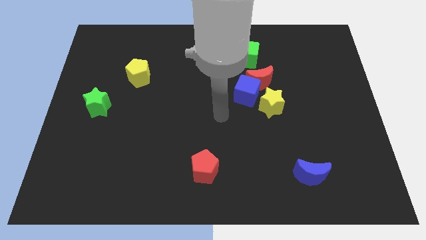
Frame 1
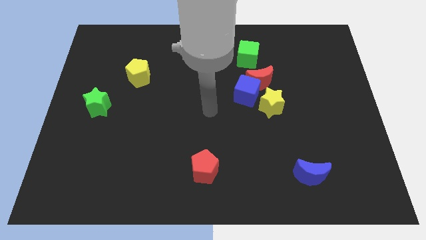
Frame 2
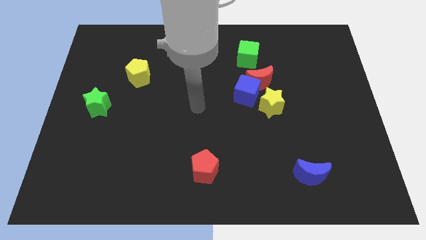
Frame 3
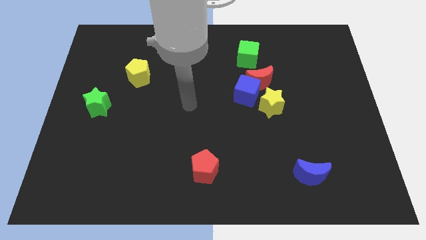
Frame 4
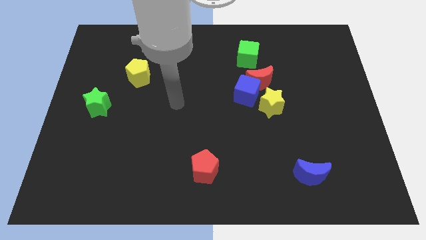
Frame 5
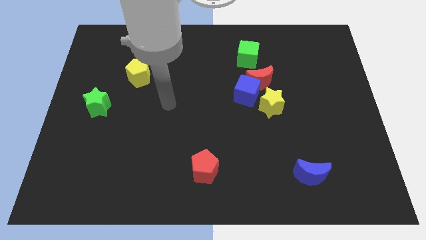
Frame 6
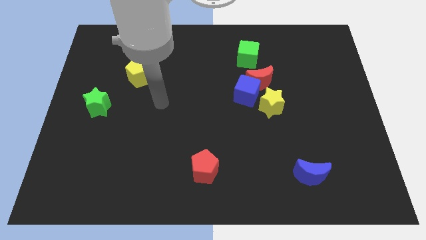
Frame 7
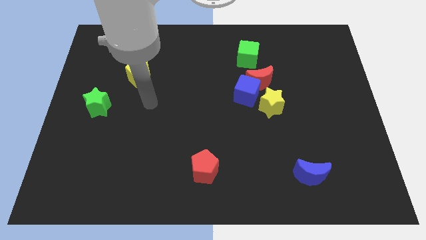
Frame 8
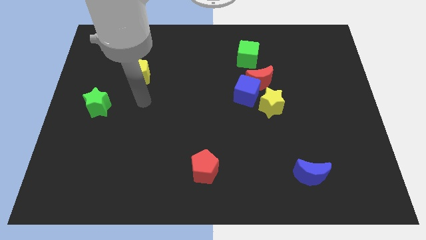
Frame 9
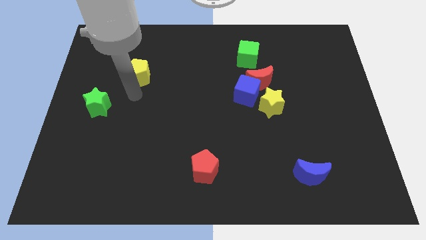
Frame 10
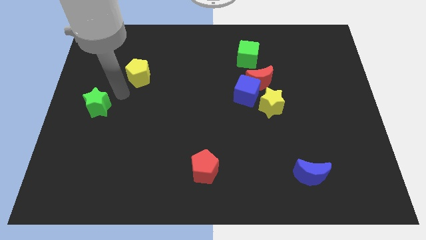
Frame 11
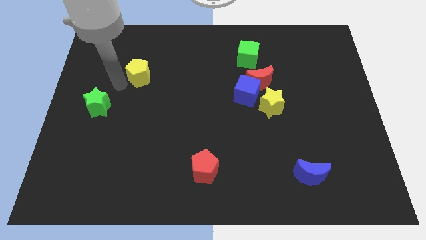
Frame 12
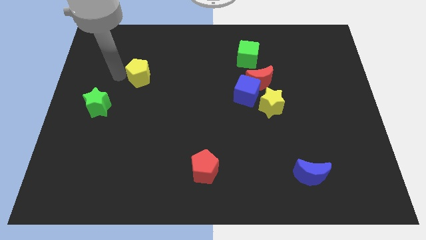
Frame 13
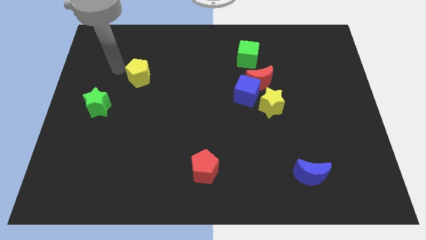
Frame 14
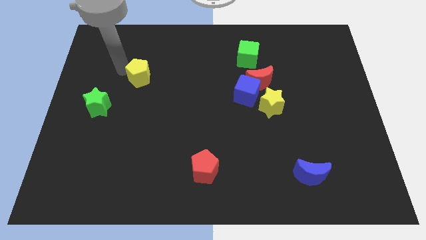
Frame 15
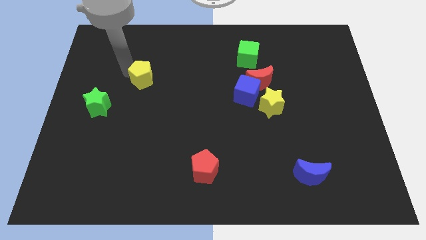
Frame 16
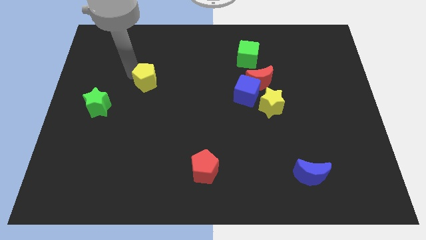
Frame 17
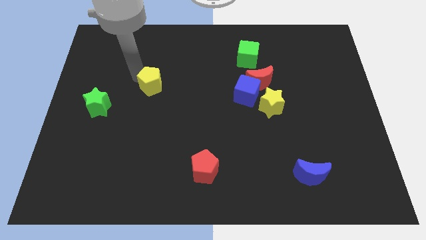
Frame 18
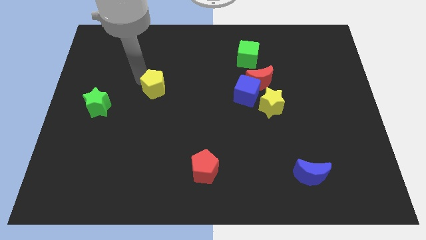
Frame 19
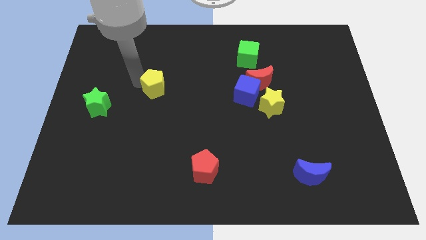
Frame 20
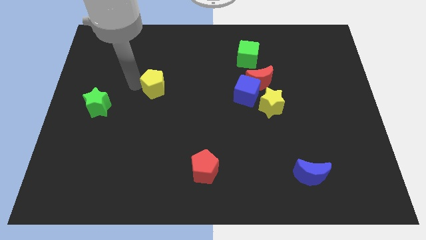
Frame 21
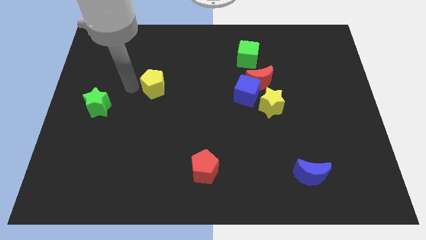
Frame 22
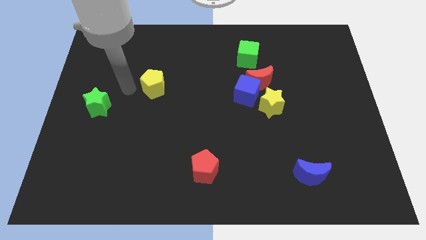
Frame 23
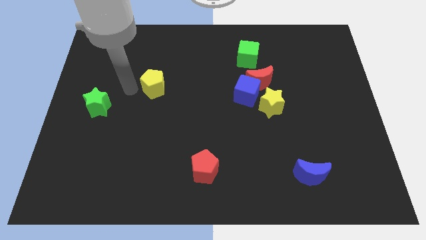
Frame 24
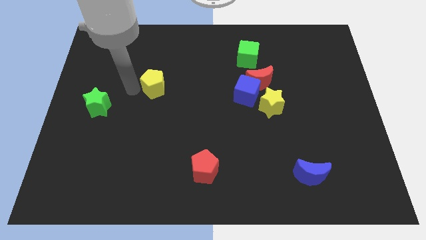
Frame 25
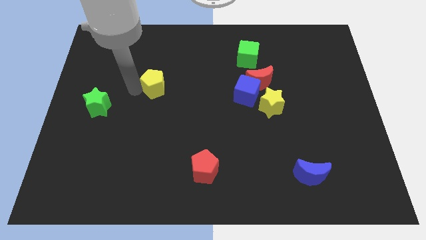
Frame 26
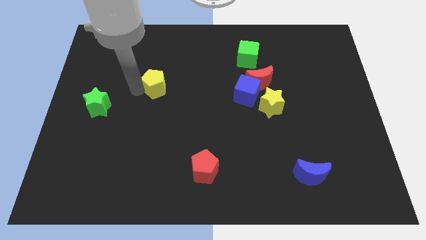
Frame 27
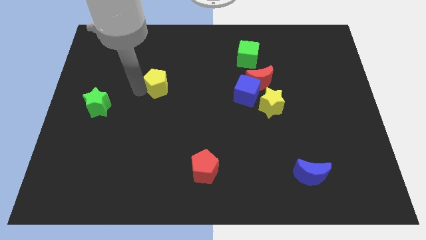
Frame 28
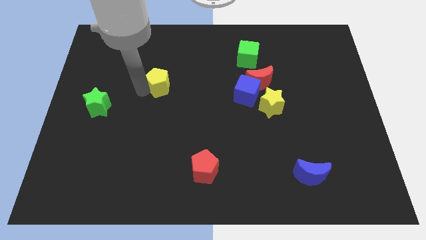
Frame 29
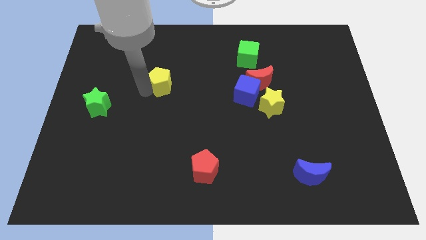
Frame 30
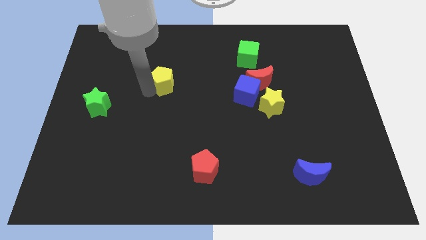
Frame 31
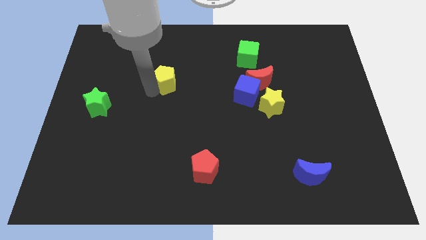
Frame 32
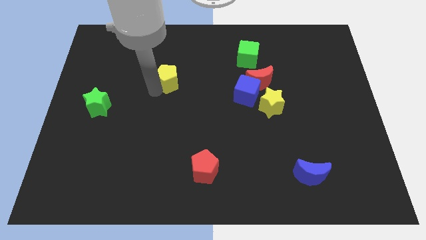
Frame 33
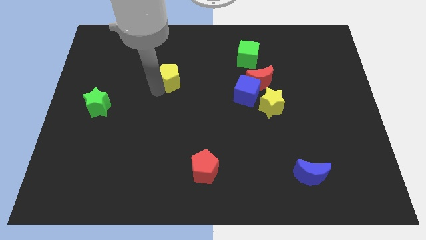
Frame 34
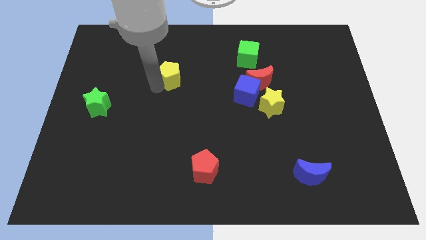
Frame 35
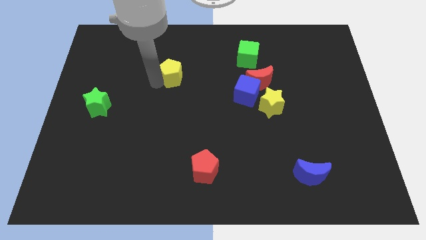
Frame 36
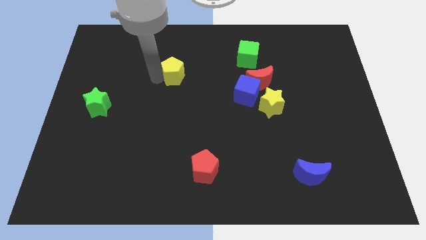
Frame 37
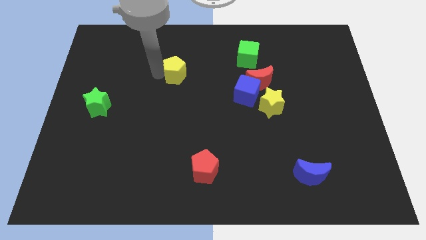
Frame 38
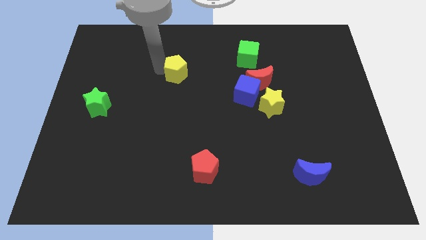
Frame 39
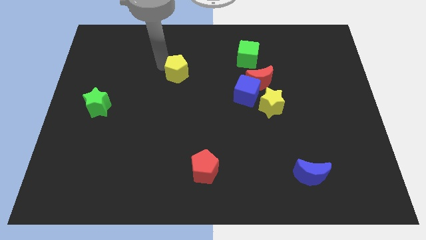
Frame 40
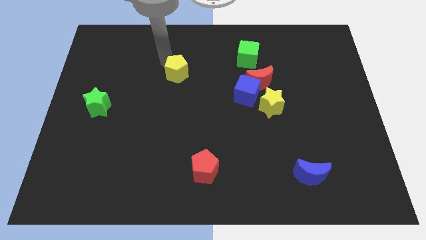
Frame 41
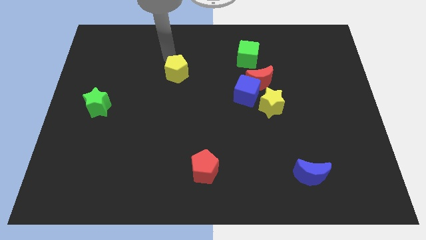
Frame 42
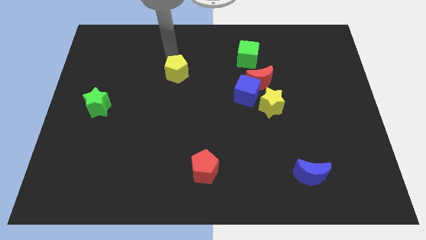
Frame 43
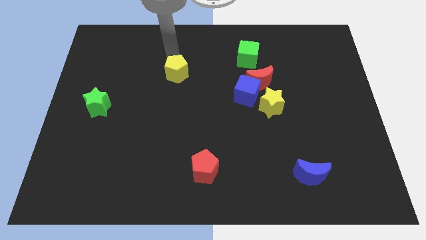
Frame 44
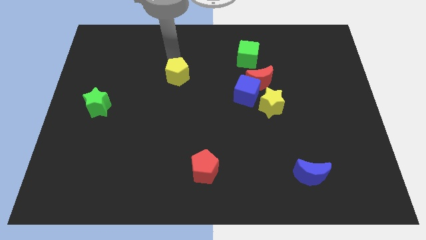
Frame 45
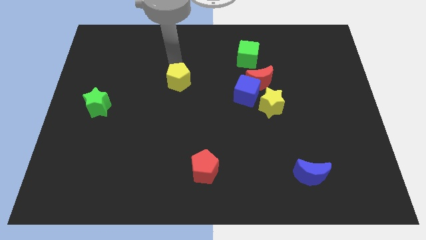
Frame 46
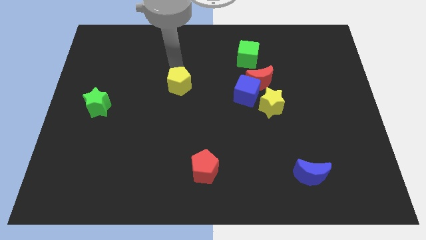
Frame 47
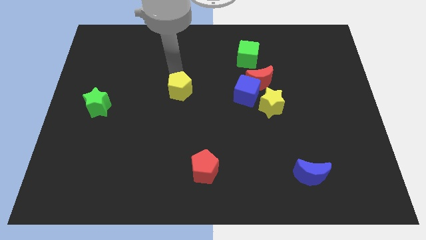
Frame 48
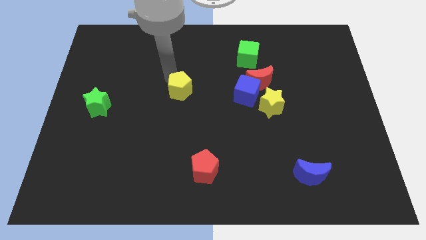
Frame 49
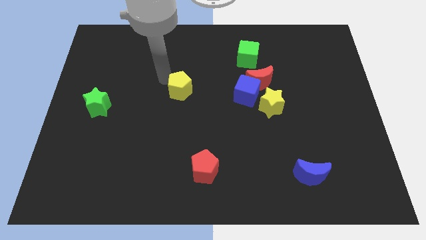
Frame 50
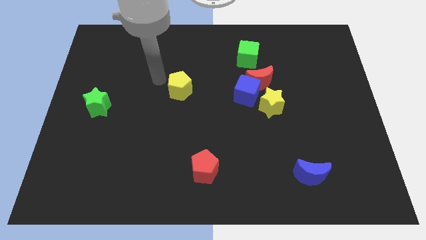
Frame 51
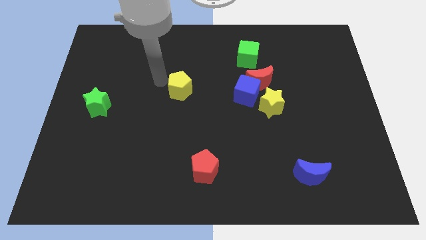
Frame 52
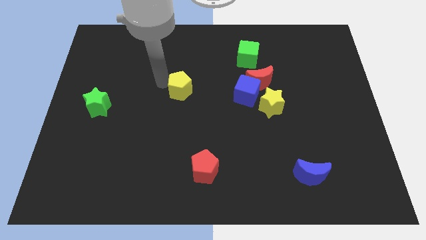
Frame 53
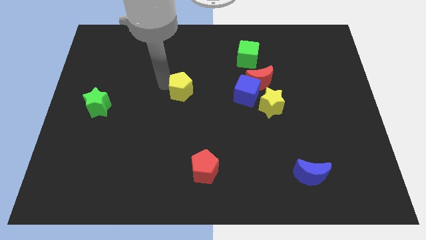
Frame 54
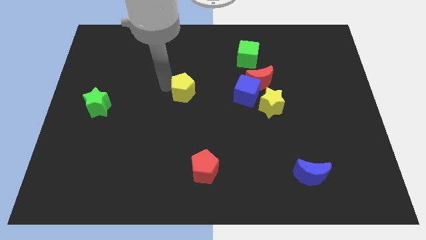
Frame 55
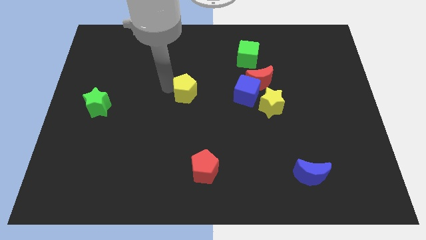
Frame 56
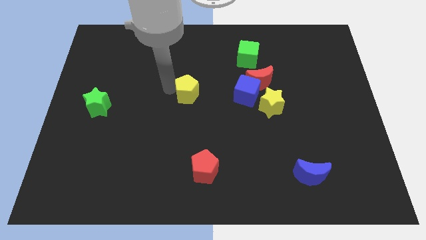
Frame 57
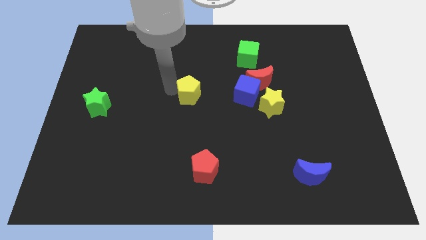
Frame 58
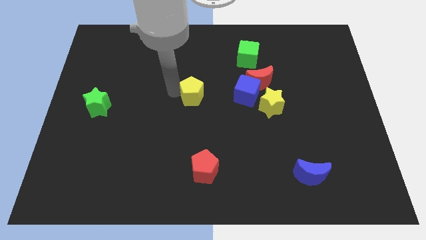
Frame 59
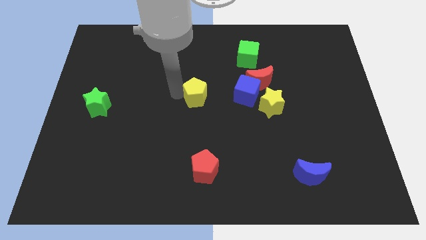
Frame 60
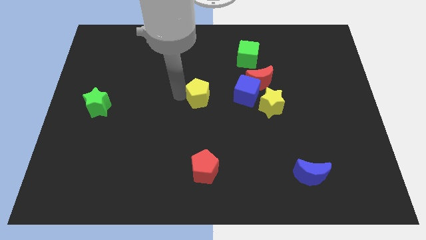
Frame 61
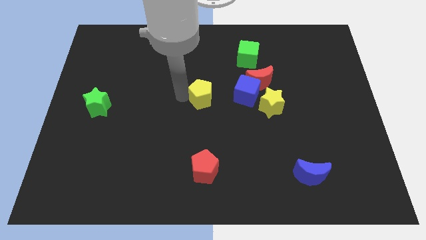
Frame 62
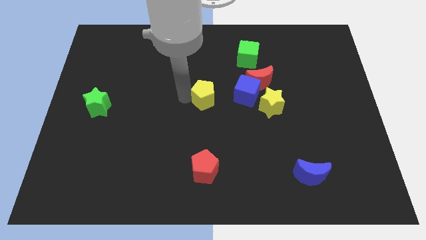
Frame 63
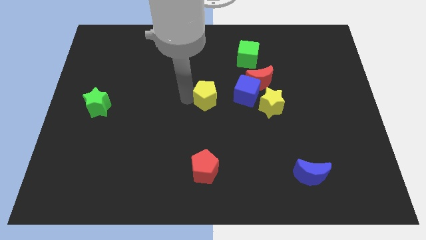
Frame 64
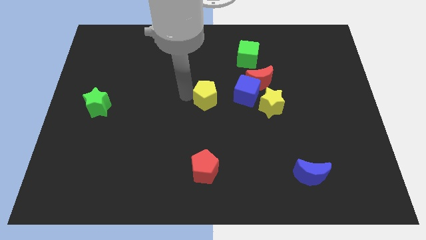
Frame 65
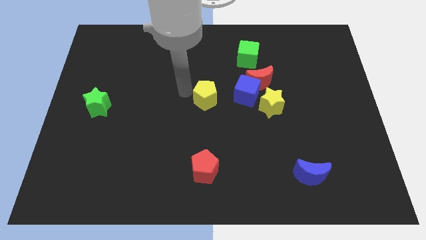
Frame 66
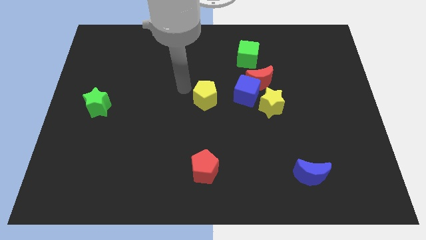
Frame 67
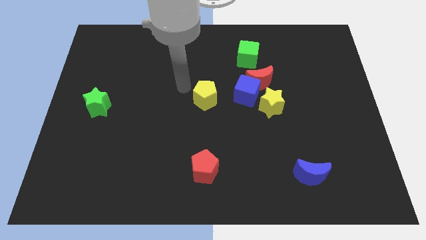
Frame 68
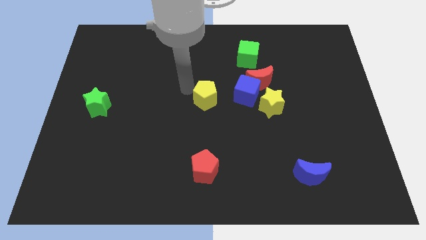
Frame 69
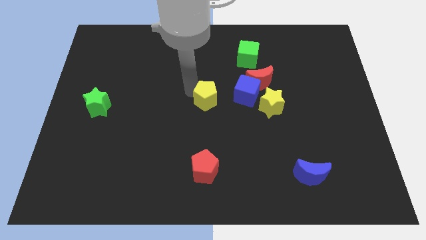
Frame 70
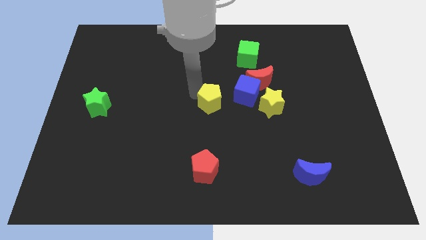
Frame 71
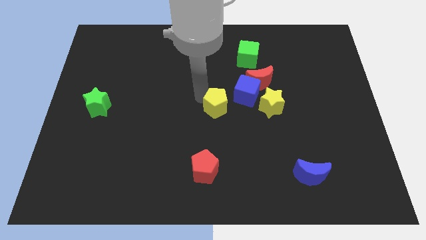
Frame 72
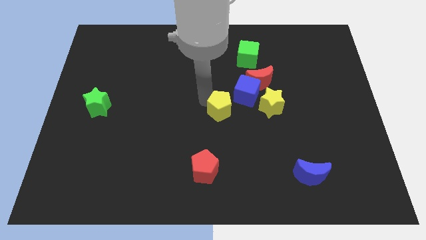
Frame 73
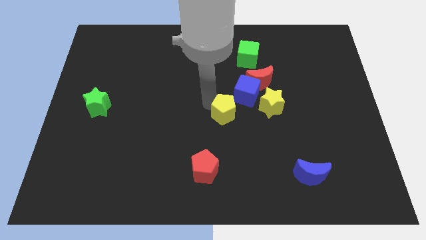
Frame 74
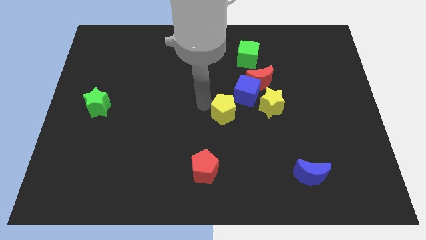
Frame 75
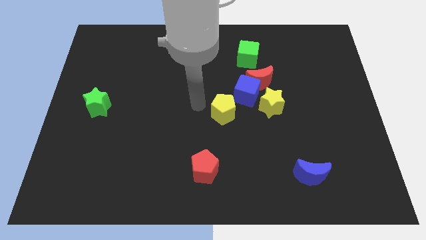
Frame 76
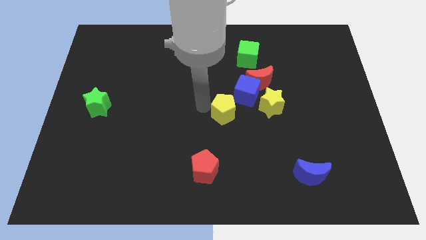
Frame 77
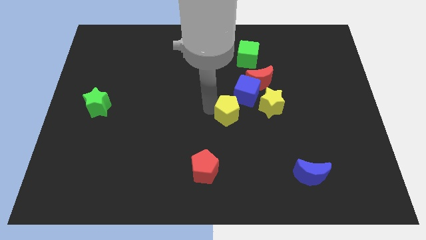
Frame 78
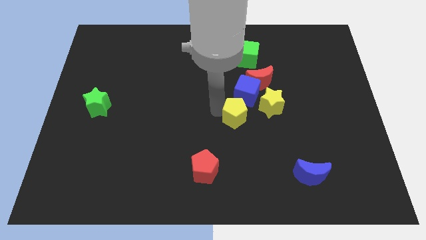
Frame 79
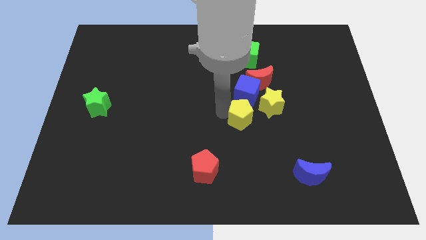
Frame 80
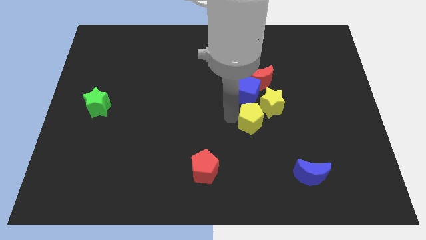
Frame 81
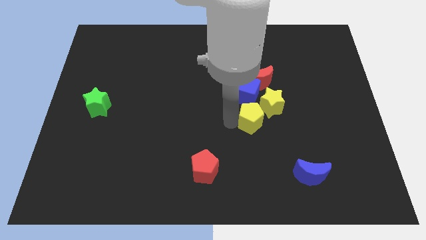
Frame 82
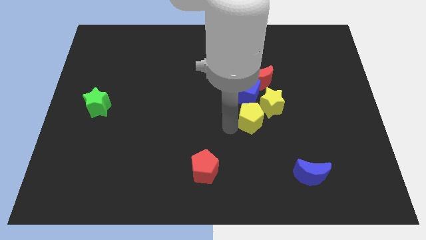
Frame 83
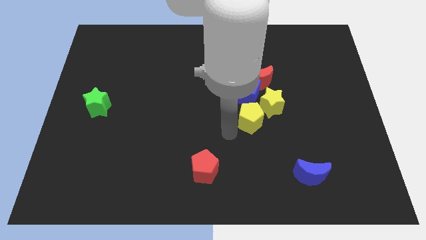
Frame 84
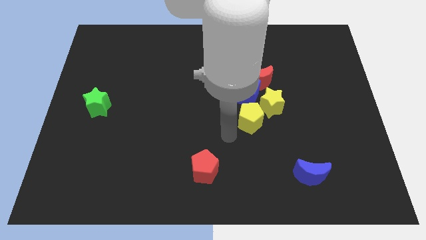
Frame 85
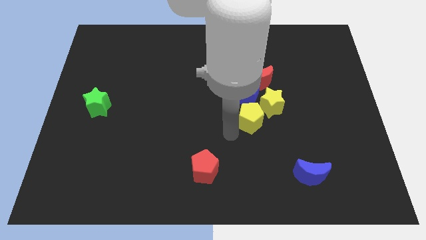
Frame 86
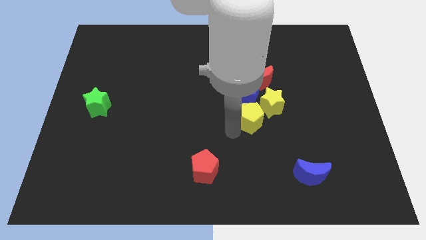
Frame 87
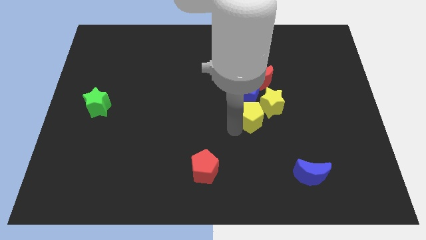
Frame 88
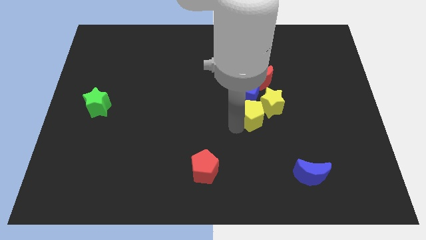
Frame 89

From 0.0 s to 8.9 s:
push the yellow pentagon next to the yellow star
